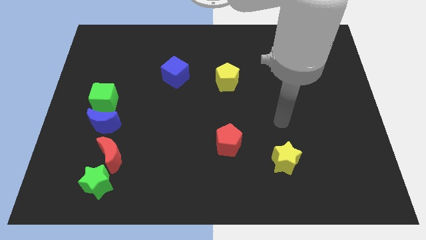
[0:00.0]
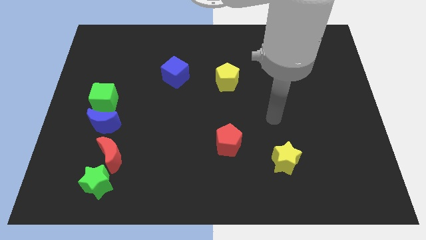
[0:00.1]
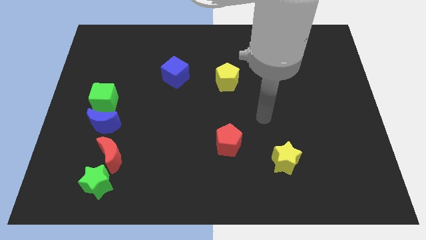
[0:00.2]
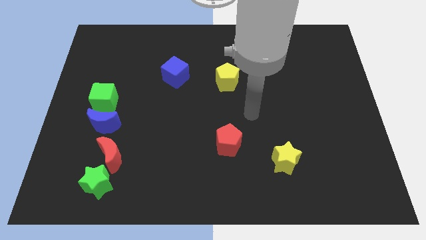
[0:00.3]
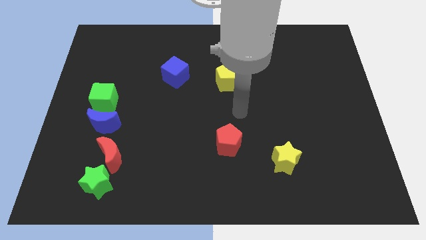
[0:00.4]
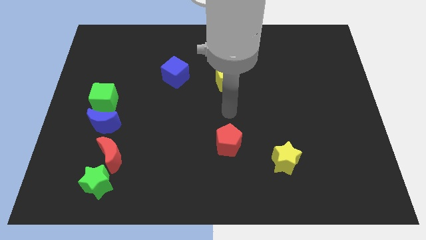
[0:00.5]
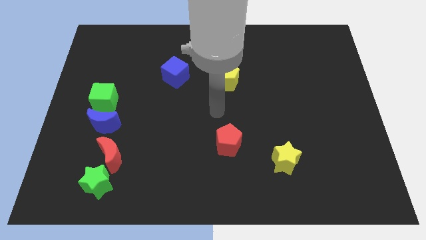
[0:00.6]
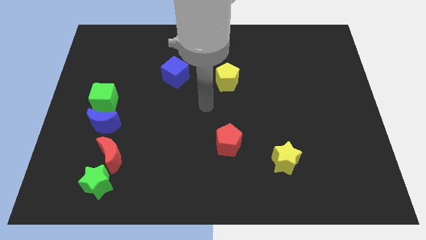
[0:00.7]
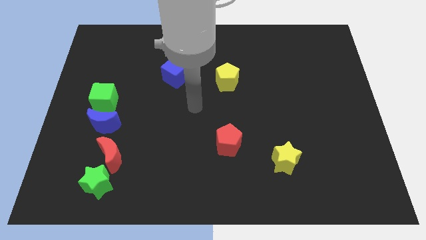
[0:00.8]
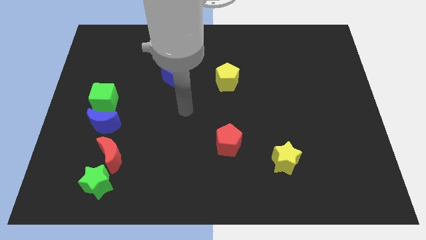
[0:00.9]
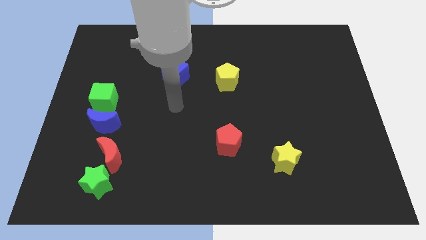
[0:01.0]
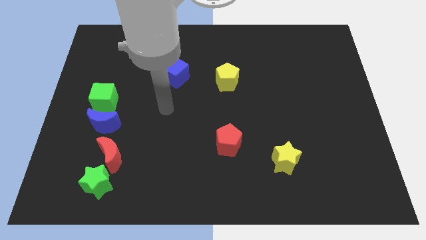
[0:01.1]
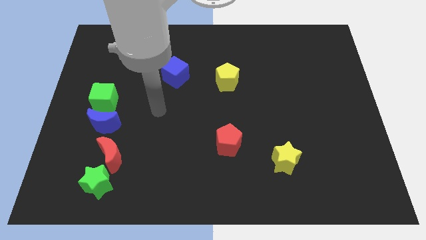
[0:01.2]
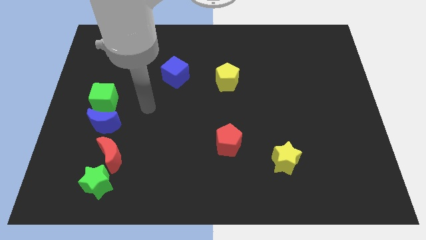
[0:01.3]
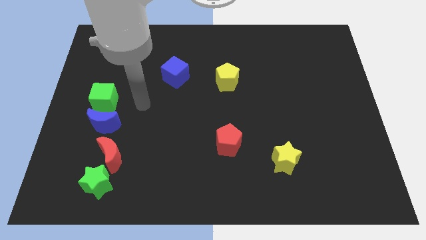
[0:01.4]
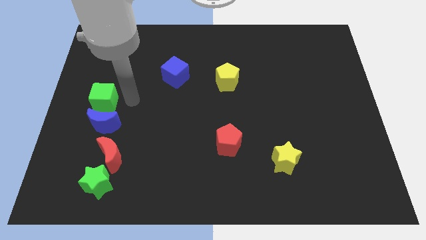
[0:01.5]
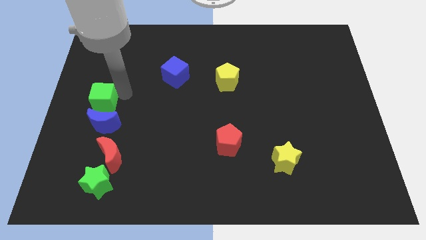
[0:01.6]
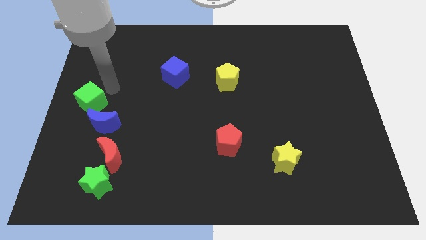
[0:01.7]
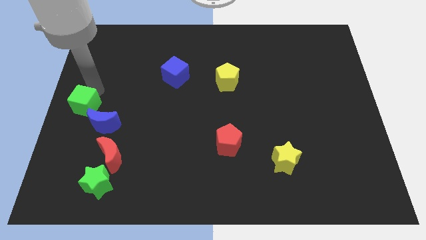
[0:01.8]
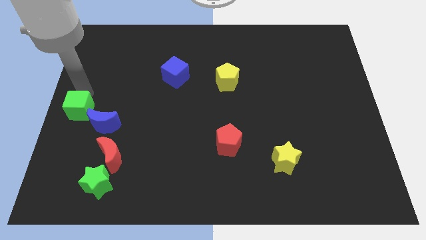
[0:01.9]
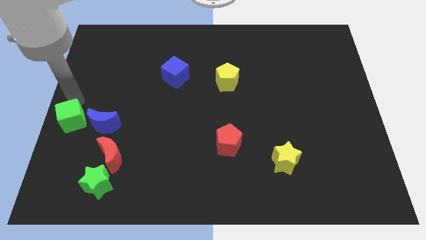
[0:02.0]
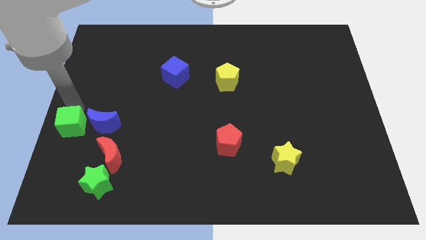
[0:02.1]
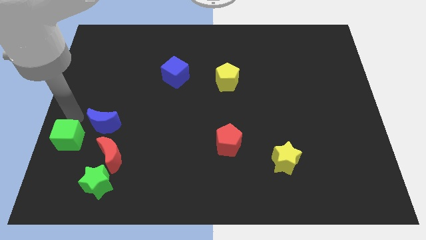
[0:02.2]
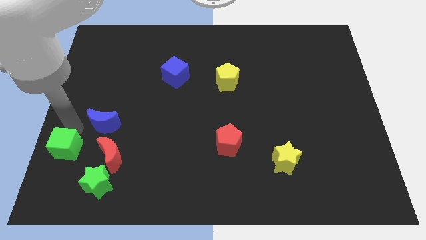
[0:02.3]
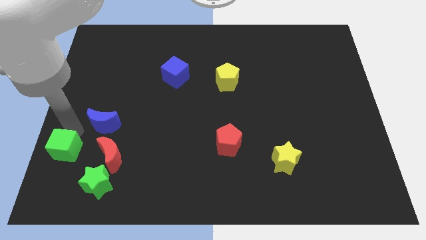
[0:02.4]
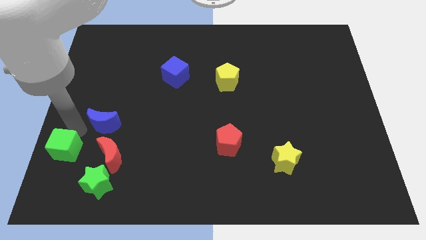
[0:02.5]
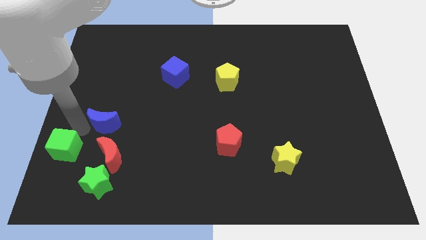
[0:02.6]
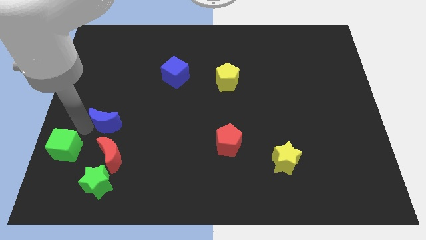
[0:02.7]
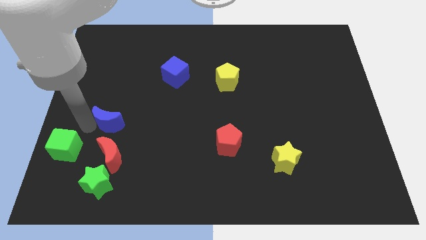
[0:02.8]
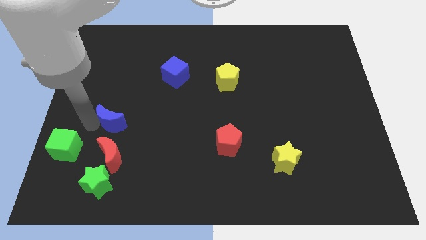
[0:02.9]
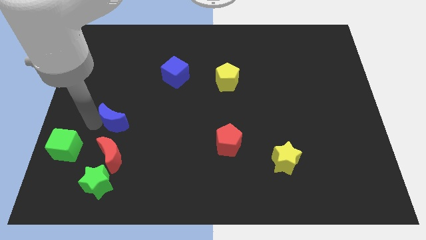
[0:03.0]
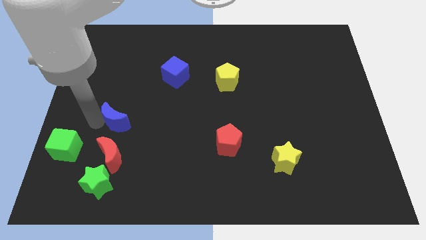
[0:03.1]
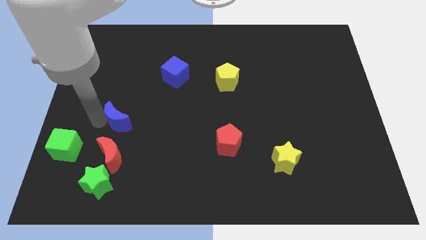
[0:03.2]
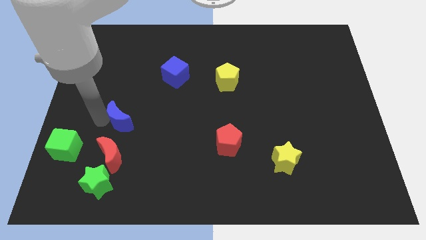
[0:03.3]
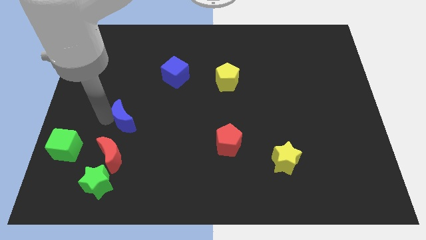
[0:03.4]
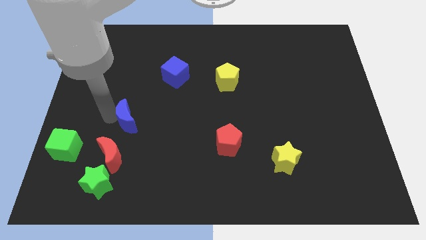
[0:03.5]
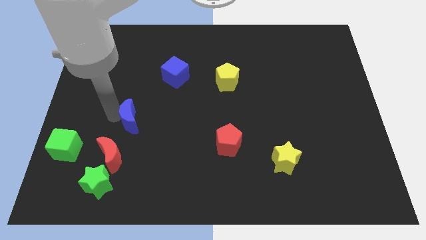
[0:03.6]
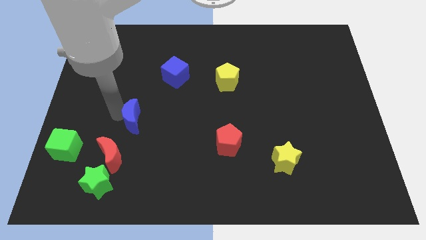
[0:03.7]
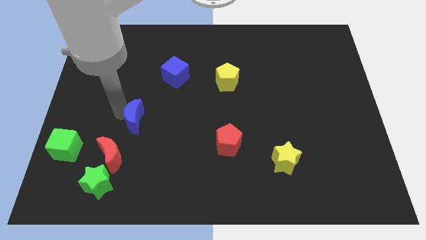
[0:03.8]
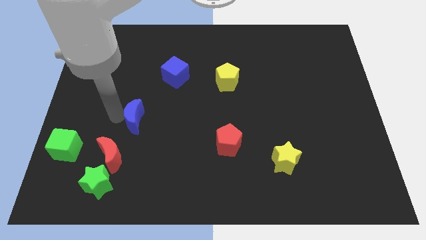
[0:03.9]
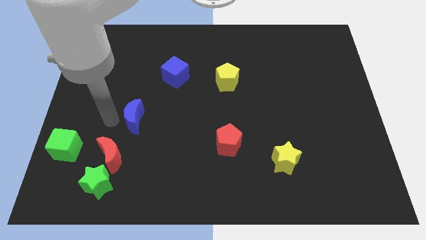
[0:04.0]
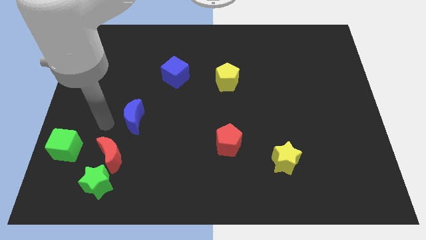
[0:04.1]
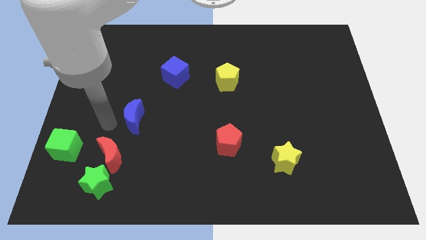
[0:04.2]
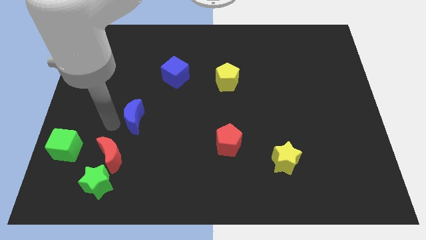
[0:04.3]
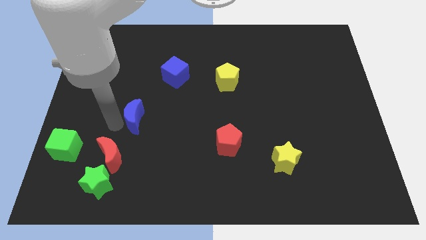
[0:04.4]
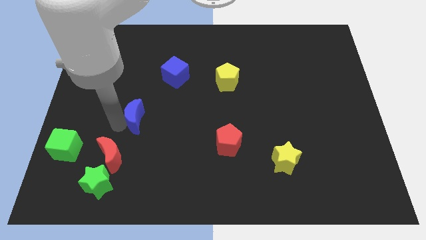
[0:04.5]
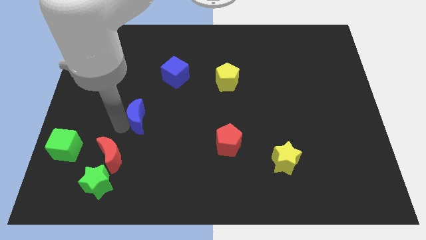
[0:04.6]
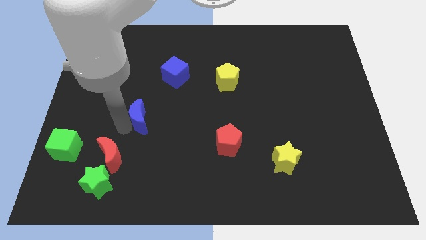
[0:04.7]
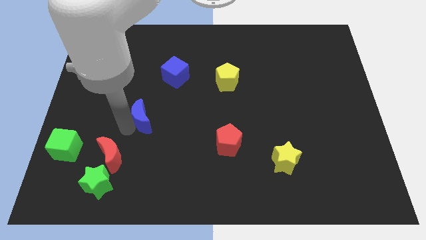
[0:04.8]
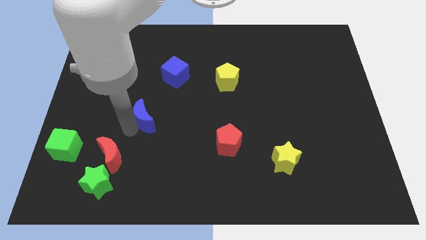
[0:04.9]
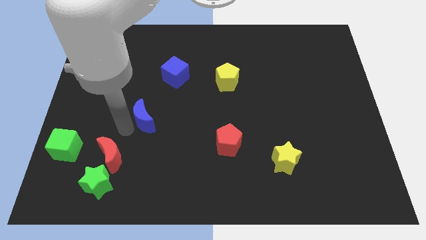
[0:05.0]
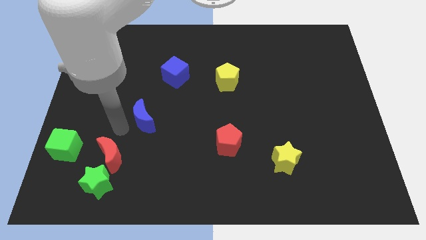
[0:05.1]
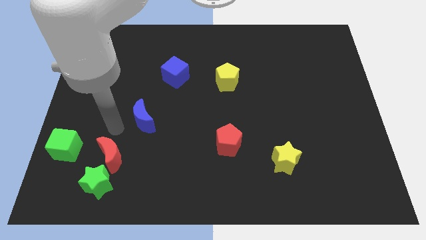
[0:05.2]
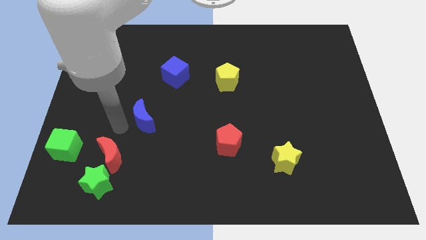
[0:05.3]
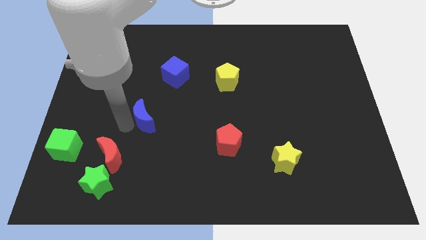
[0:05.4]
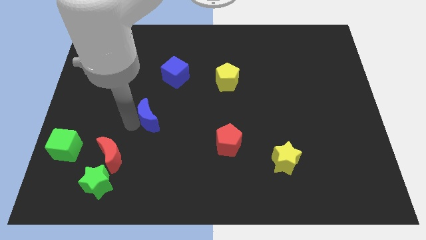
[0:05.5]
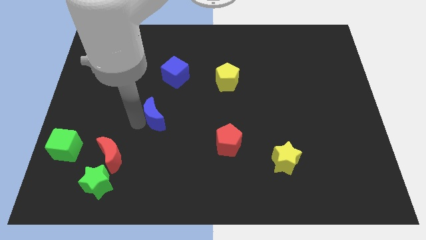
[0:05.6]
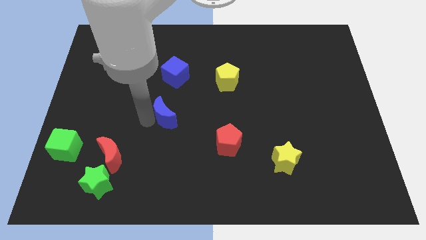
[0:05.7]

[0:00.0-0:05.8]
move the blue moon to the center
